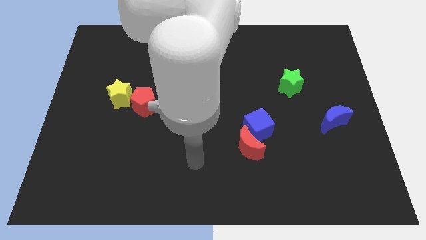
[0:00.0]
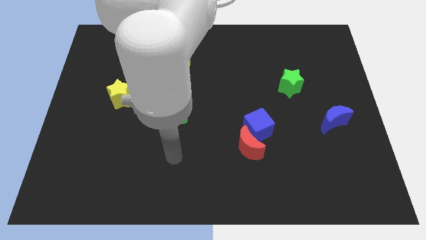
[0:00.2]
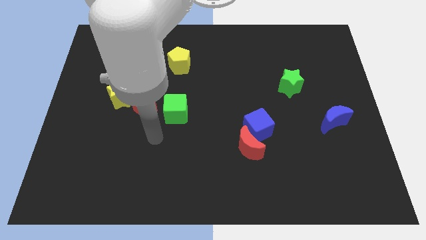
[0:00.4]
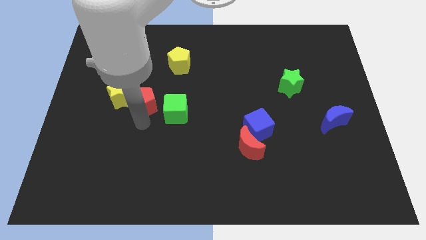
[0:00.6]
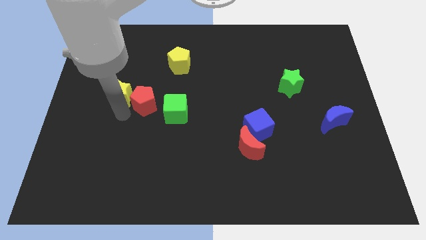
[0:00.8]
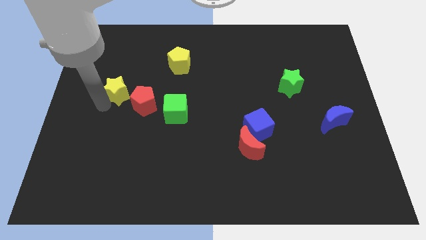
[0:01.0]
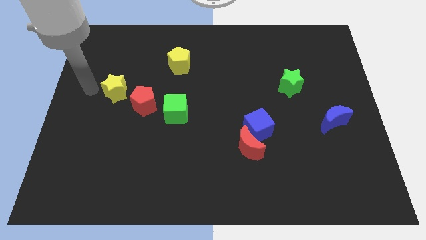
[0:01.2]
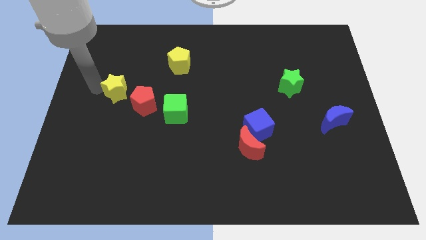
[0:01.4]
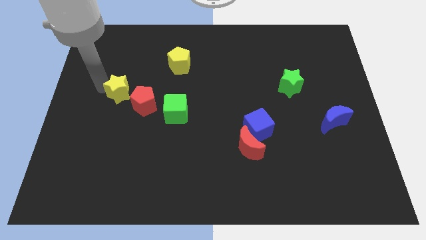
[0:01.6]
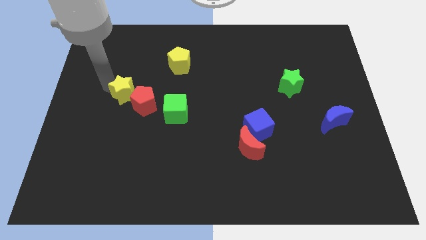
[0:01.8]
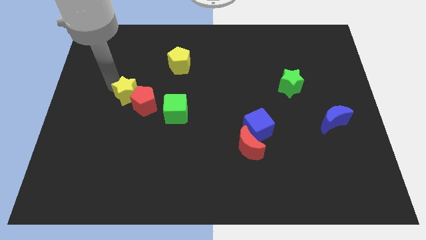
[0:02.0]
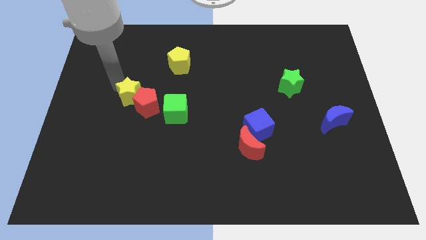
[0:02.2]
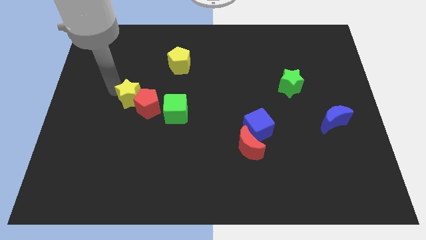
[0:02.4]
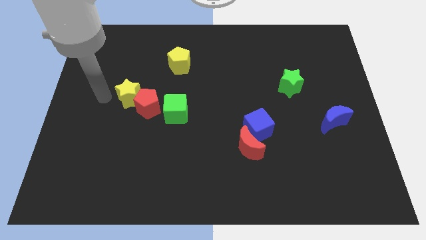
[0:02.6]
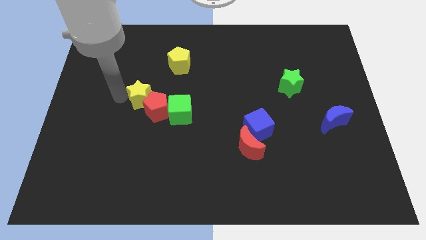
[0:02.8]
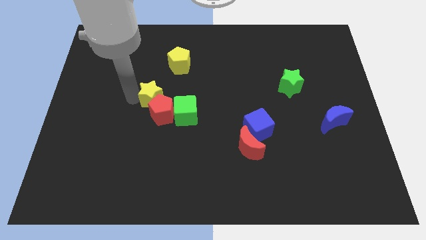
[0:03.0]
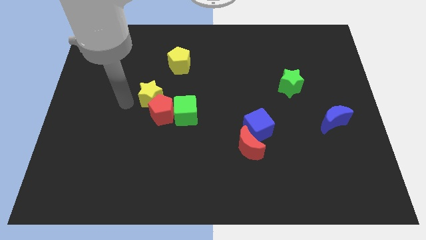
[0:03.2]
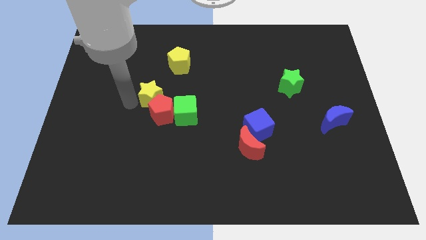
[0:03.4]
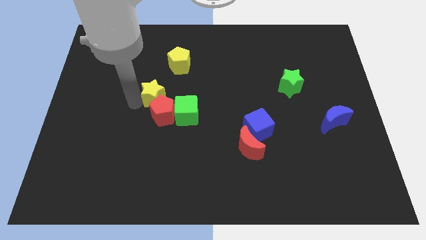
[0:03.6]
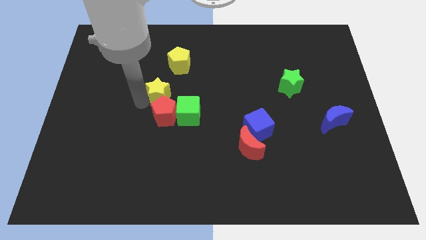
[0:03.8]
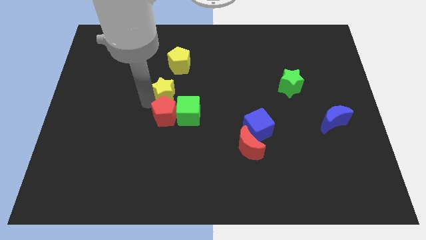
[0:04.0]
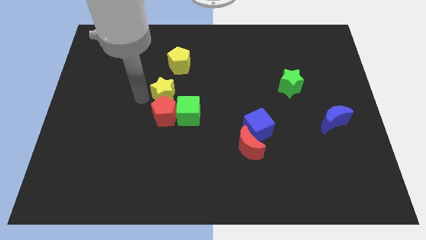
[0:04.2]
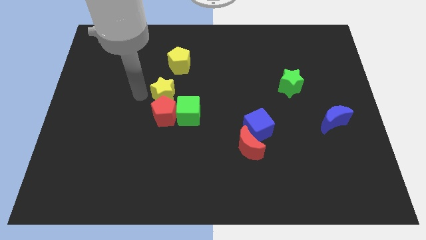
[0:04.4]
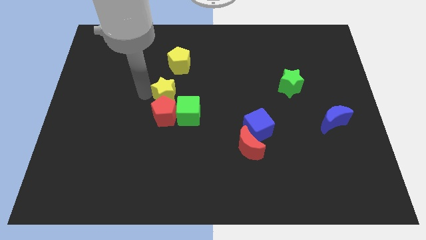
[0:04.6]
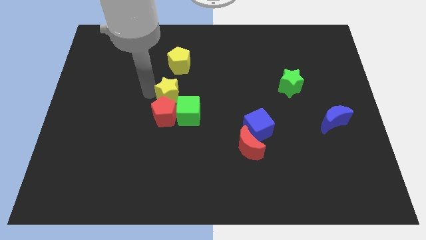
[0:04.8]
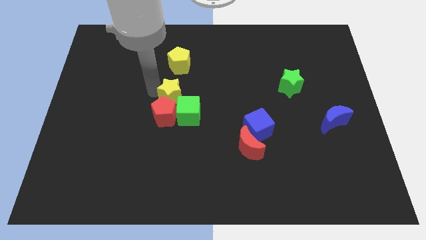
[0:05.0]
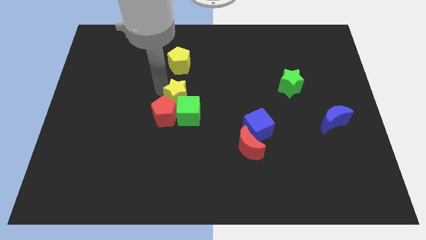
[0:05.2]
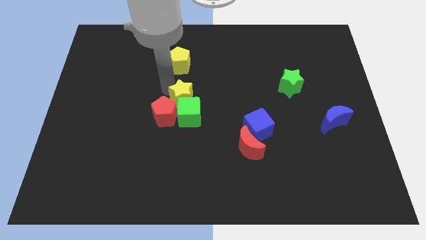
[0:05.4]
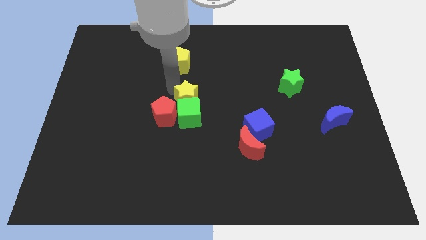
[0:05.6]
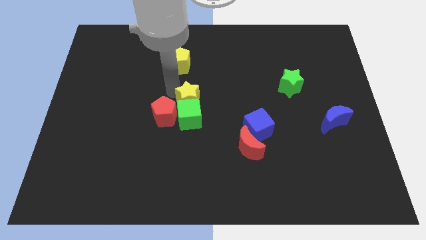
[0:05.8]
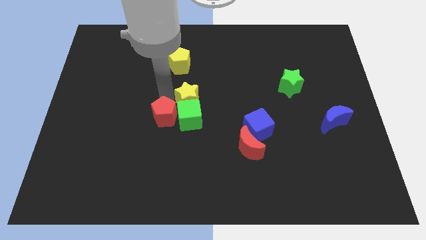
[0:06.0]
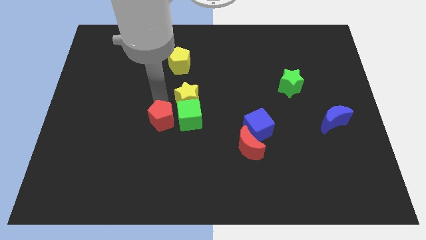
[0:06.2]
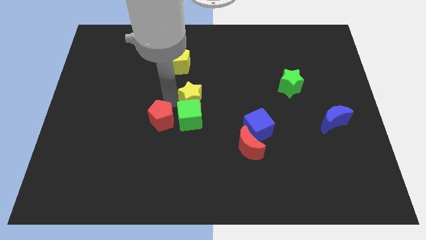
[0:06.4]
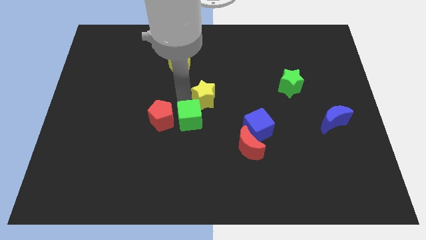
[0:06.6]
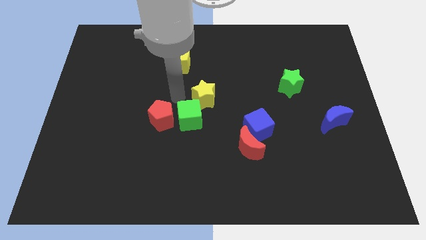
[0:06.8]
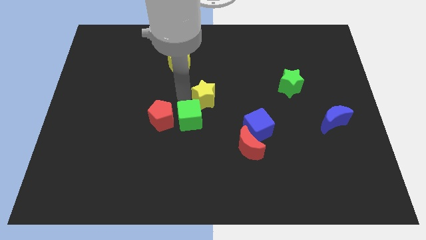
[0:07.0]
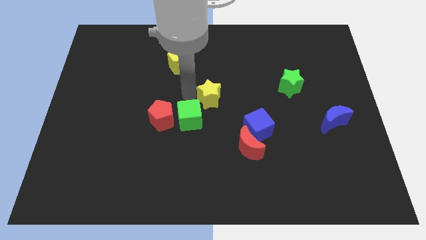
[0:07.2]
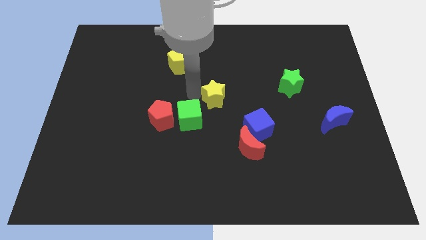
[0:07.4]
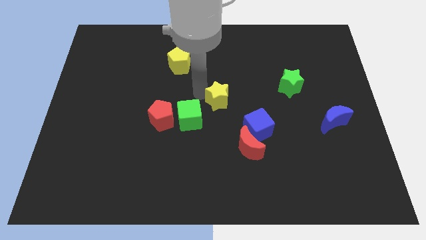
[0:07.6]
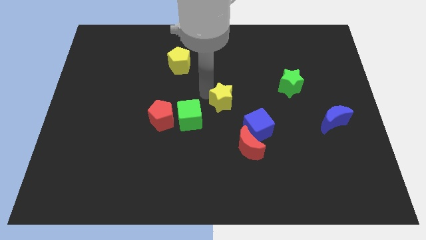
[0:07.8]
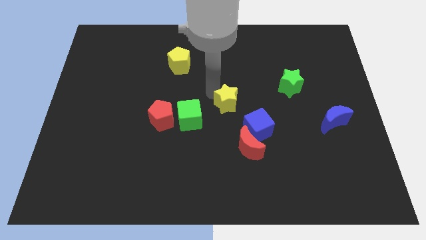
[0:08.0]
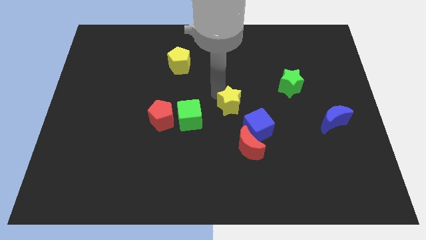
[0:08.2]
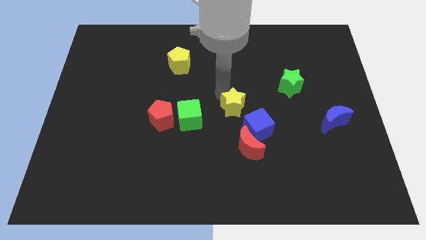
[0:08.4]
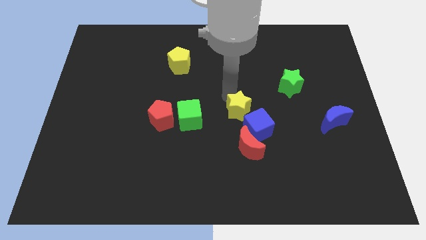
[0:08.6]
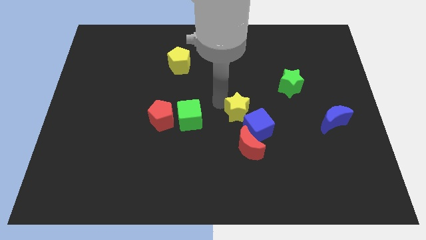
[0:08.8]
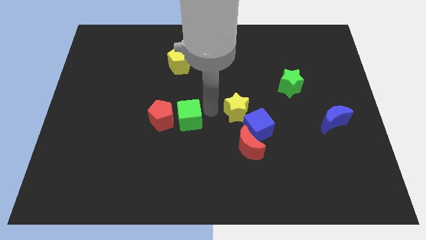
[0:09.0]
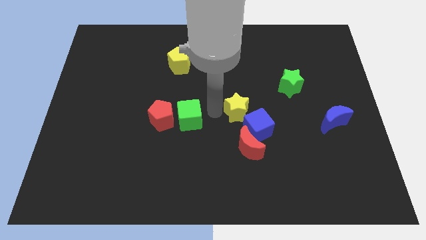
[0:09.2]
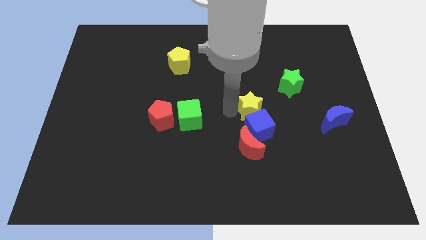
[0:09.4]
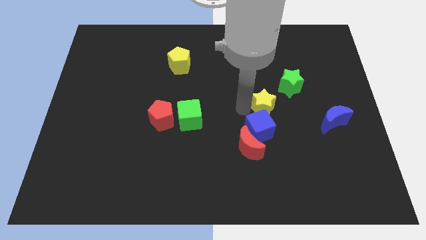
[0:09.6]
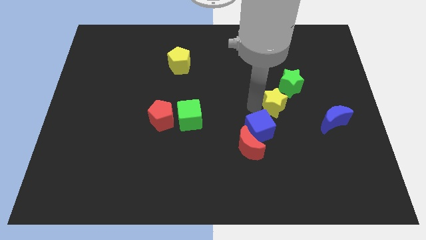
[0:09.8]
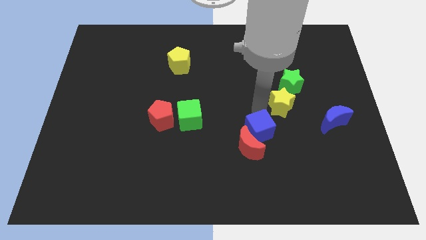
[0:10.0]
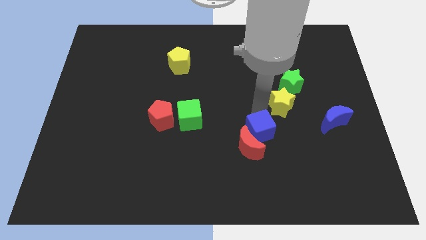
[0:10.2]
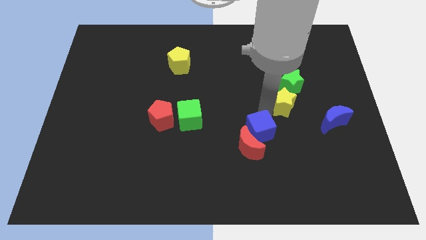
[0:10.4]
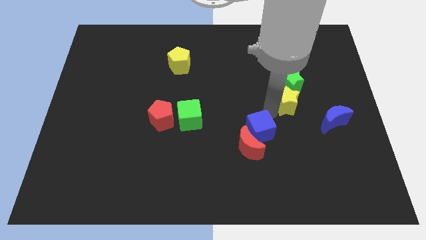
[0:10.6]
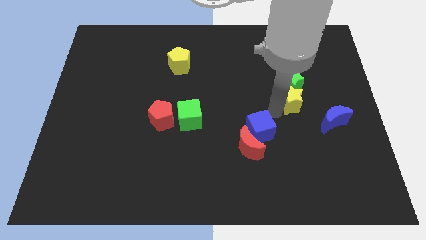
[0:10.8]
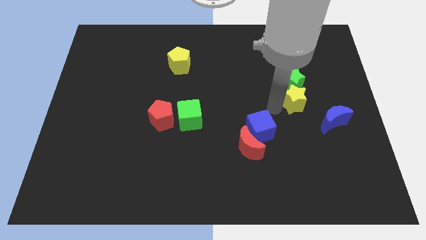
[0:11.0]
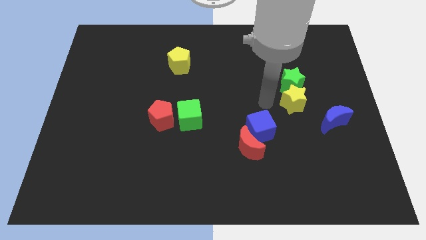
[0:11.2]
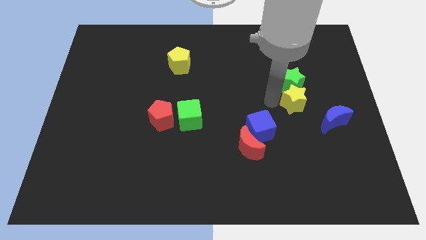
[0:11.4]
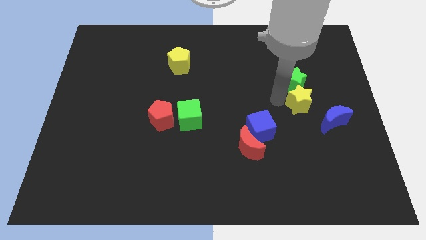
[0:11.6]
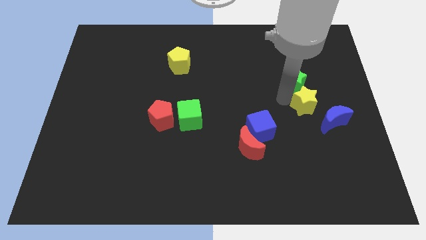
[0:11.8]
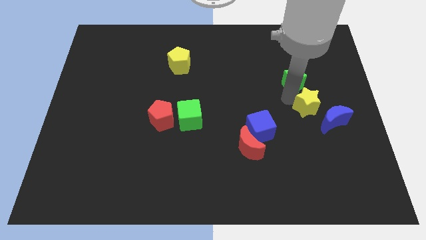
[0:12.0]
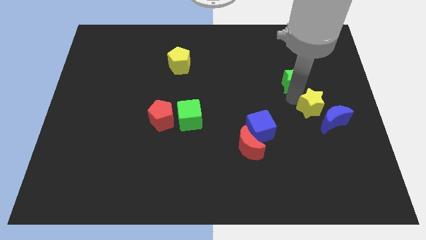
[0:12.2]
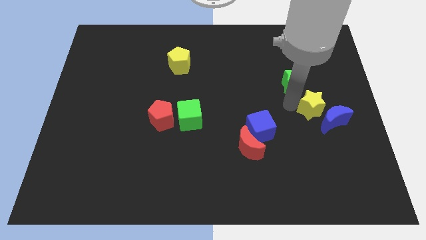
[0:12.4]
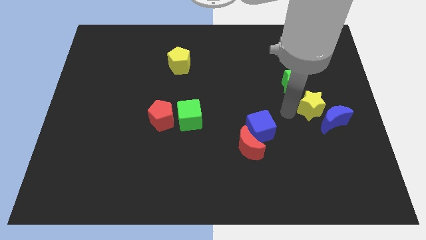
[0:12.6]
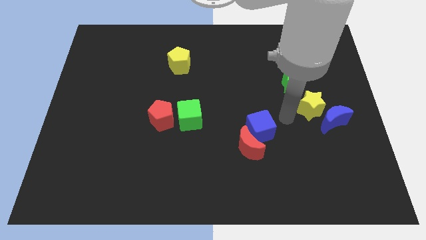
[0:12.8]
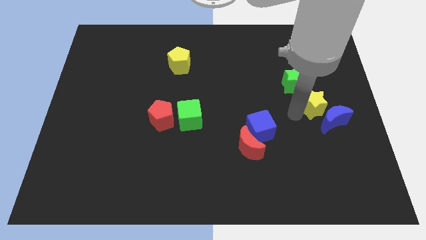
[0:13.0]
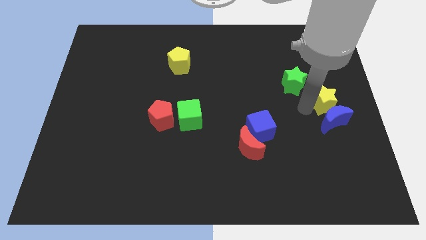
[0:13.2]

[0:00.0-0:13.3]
put the yellow star to the right side
